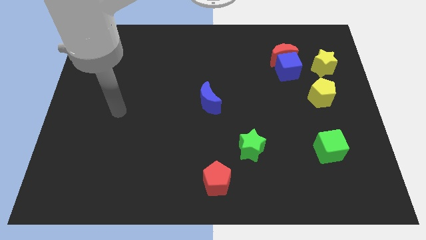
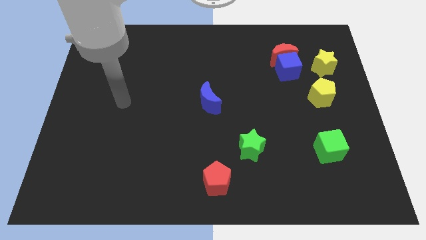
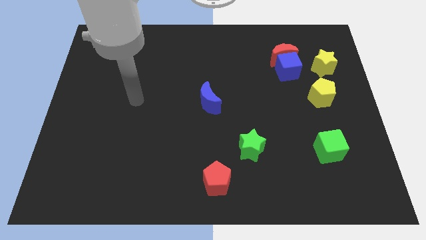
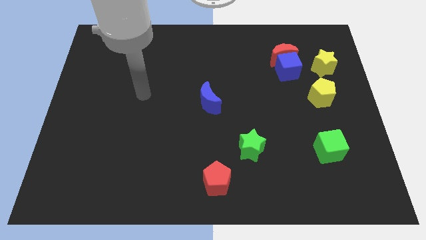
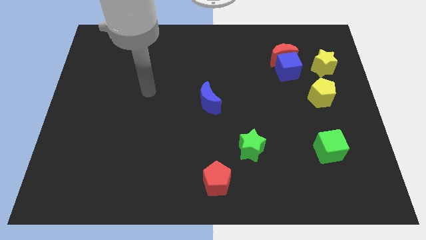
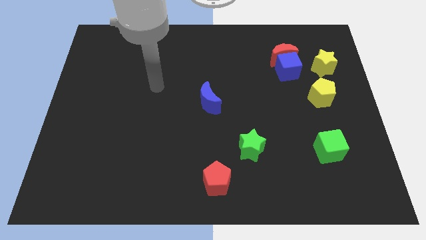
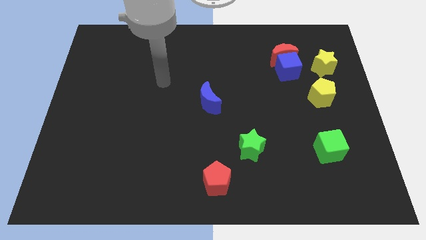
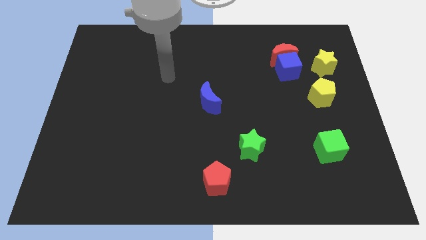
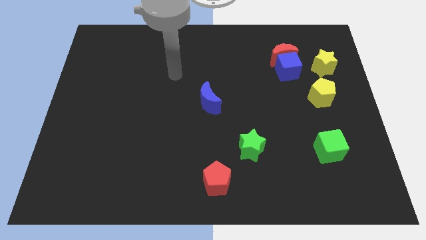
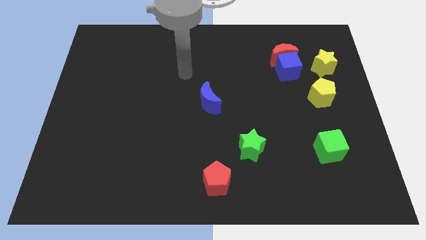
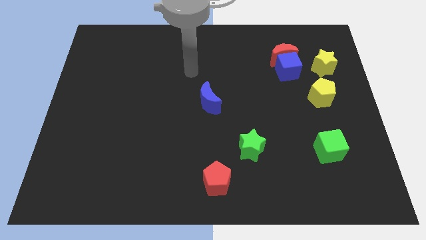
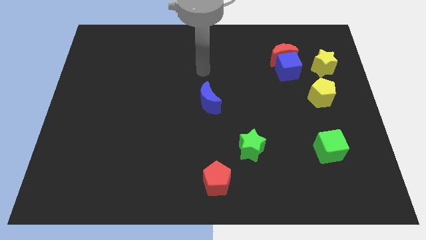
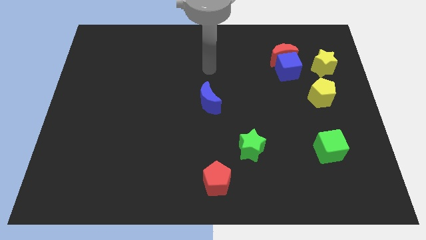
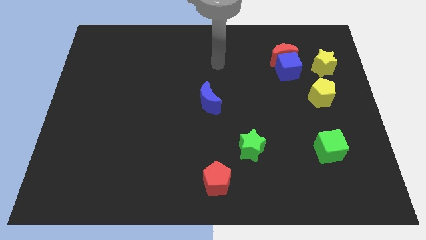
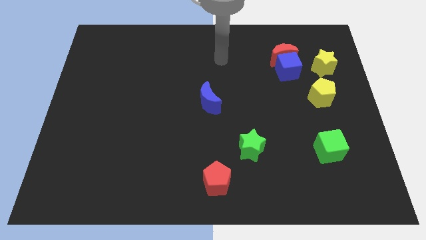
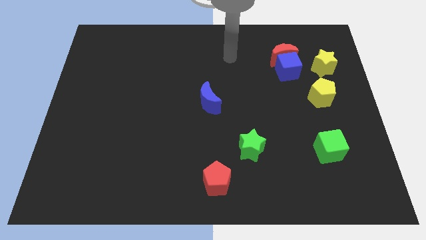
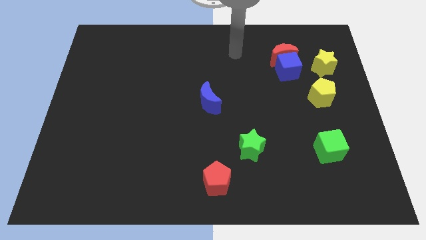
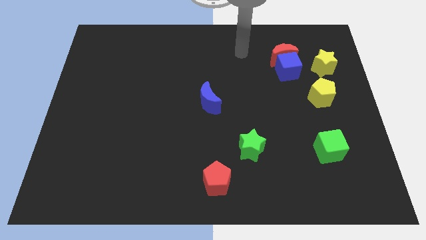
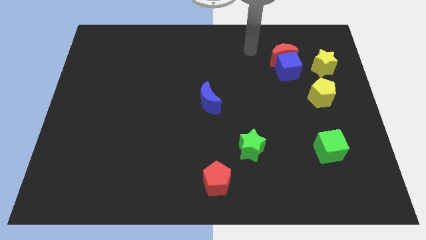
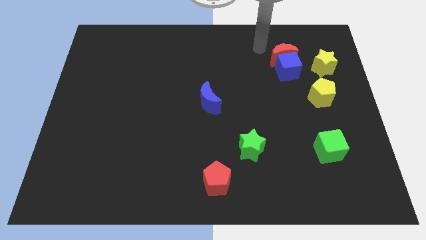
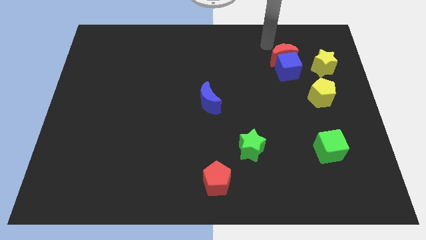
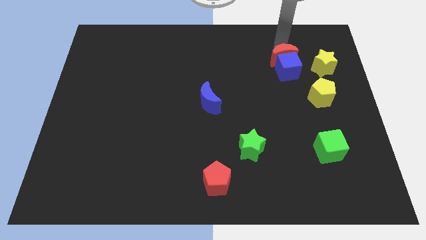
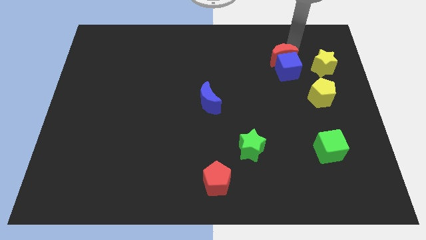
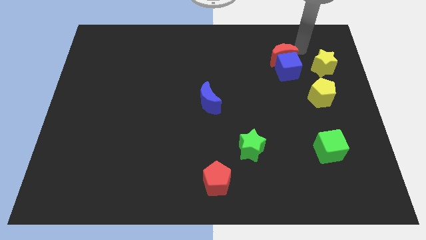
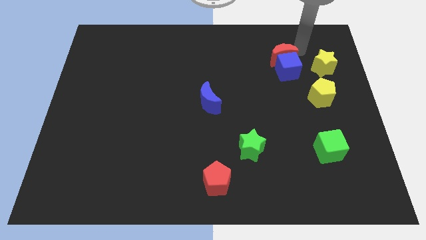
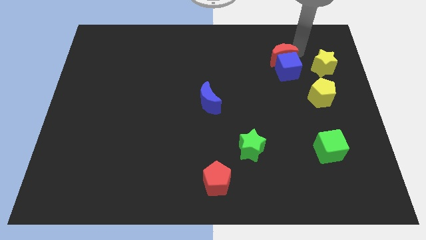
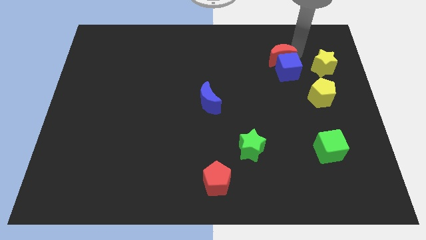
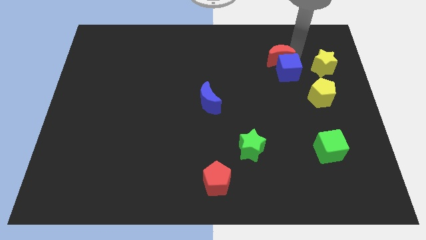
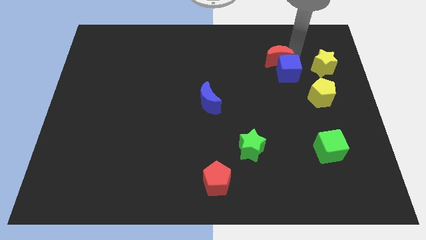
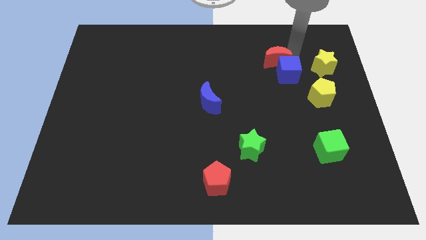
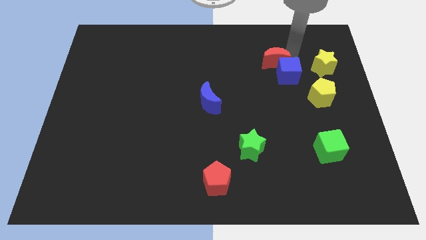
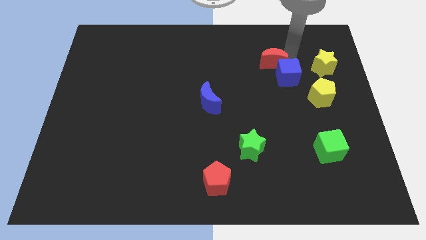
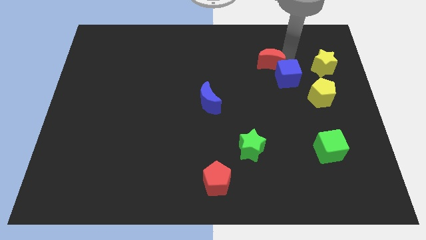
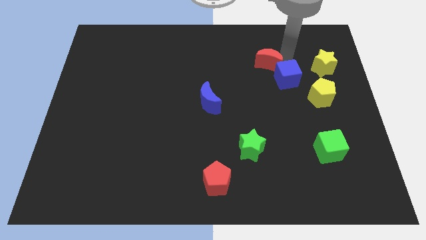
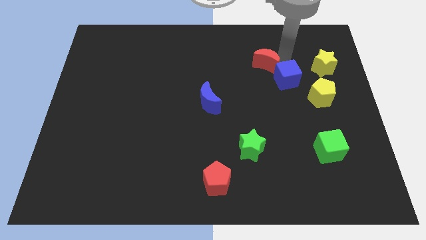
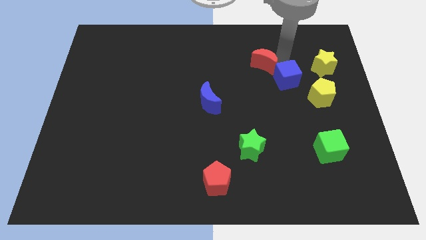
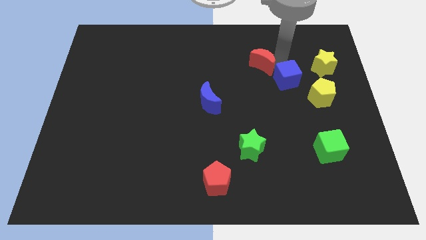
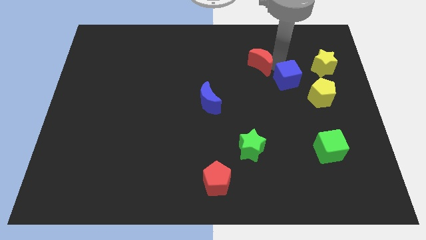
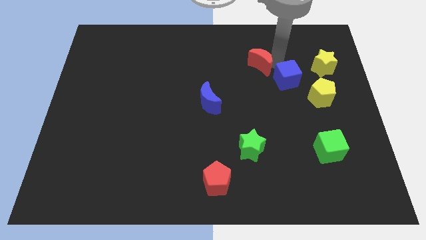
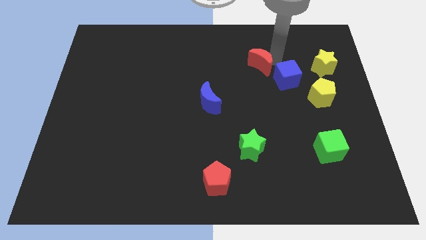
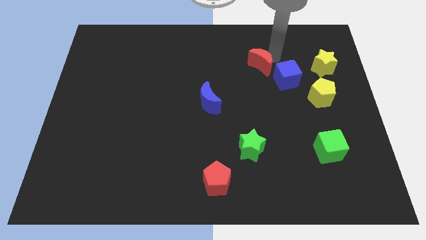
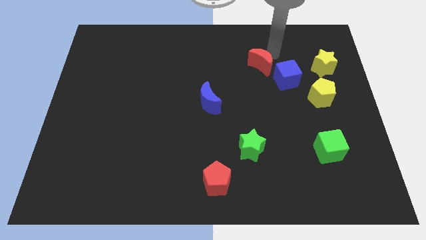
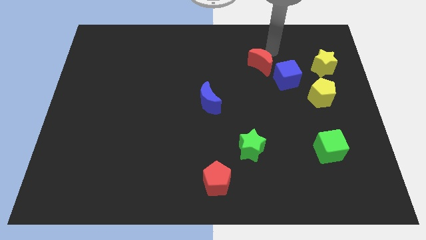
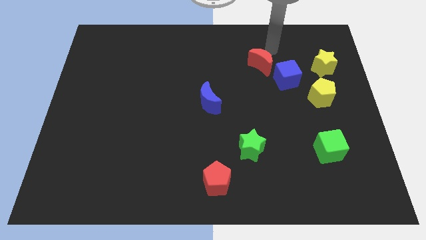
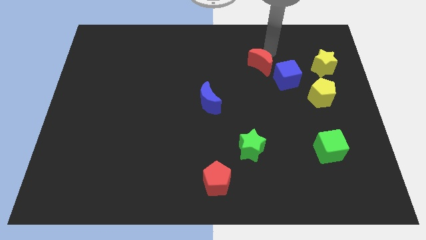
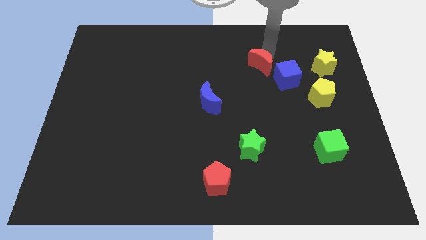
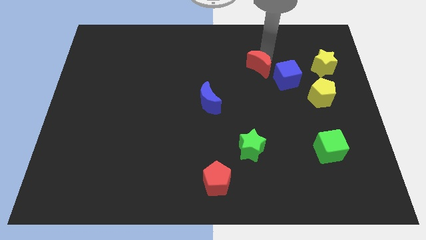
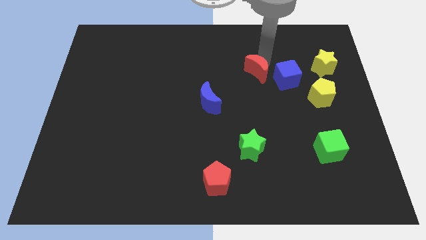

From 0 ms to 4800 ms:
move the red moon a bit down and then to the left

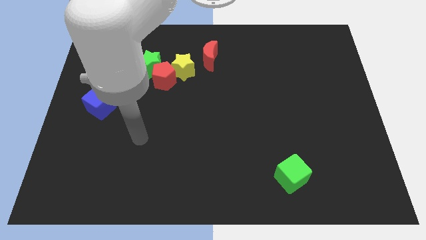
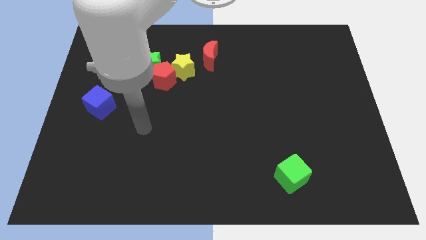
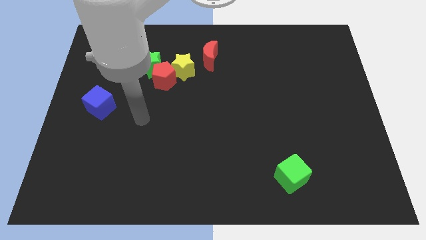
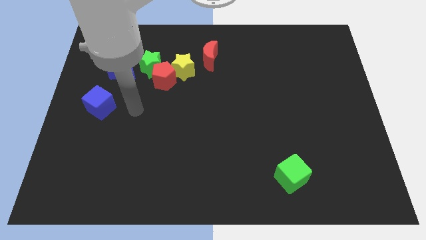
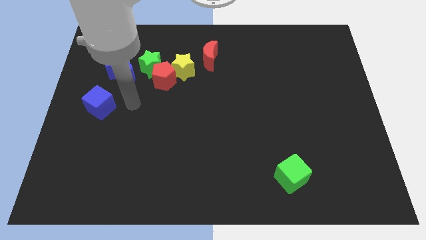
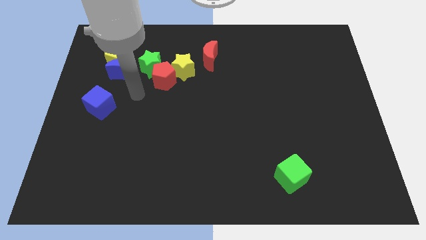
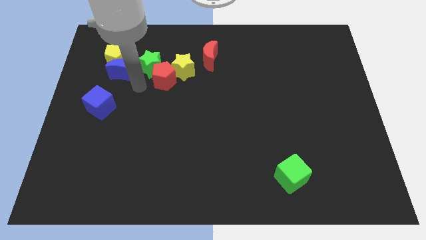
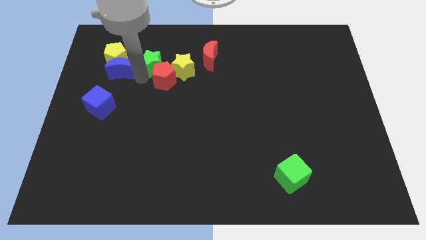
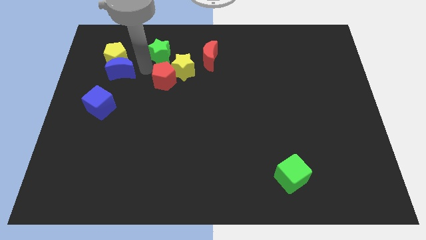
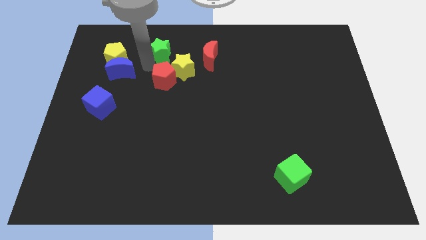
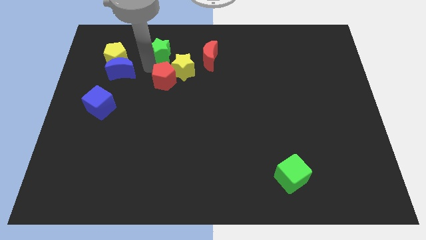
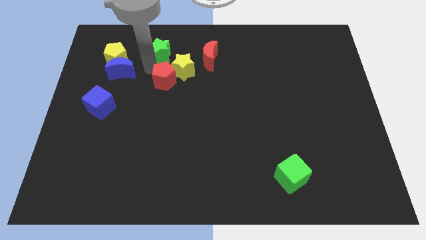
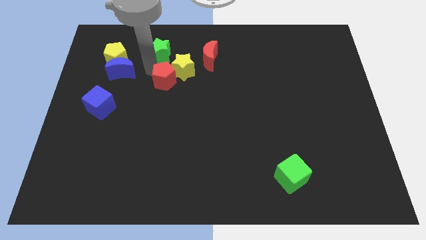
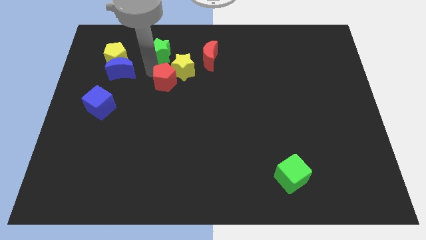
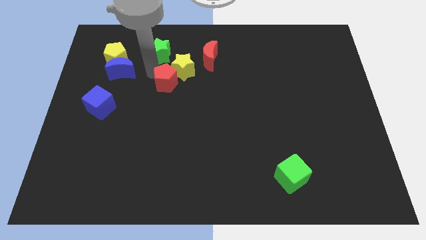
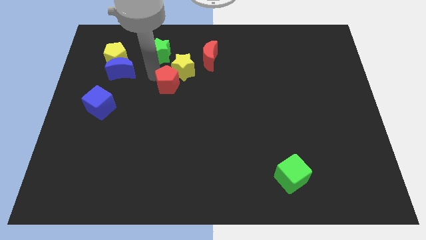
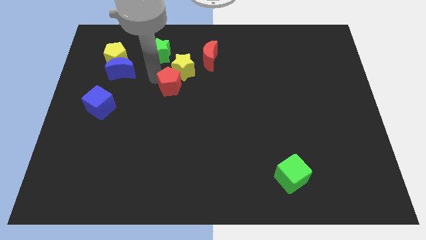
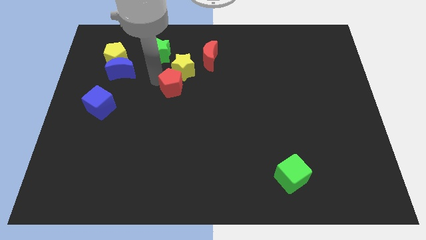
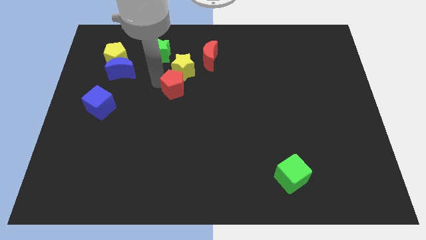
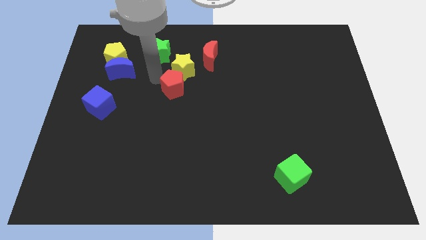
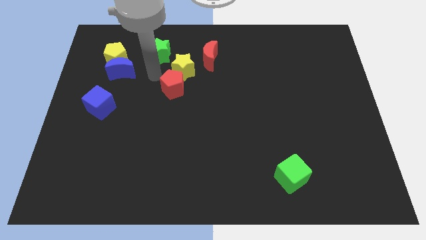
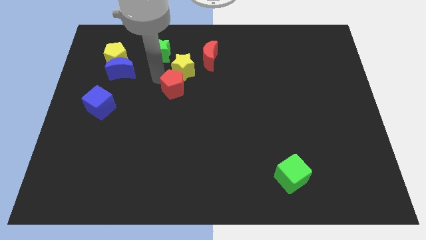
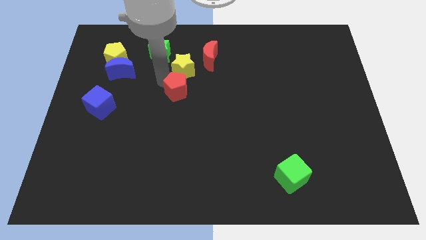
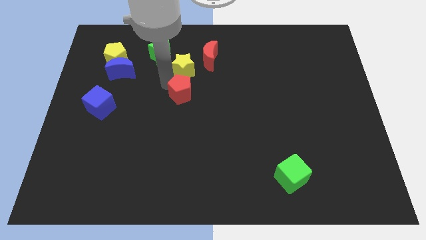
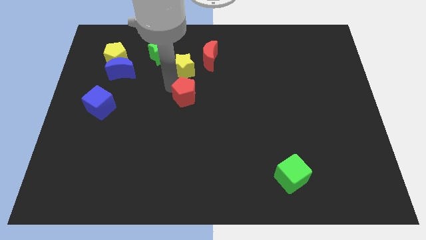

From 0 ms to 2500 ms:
push the red pentagon a little bit down and right diagonally

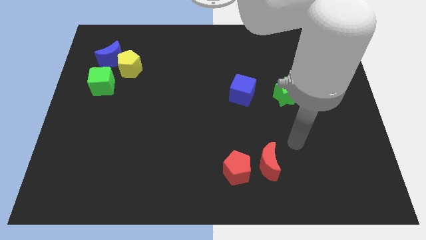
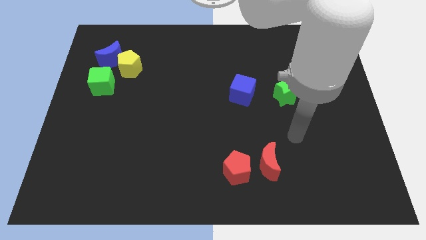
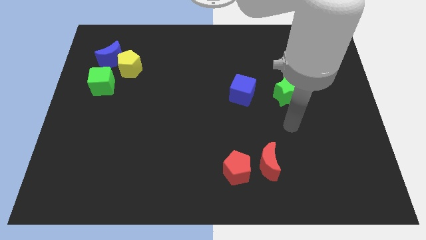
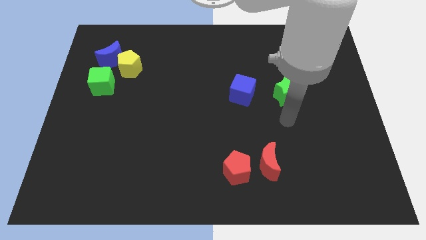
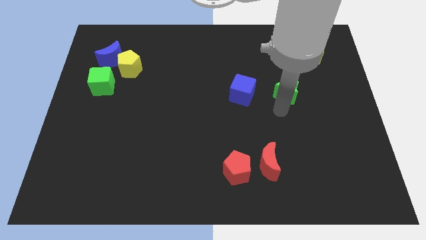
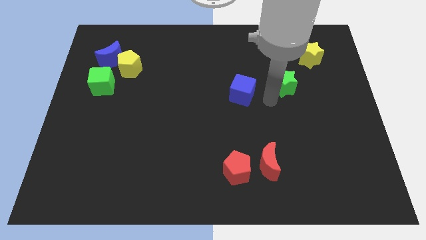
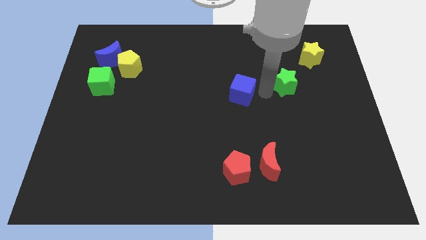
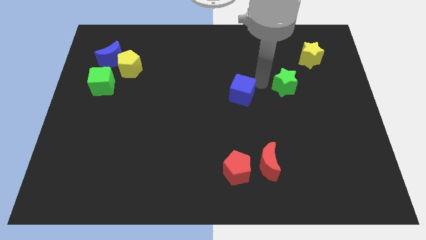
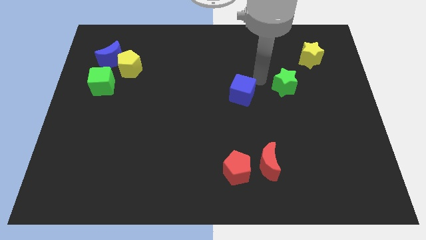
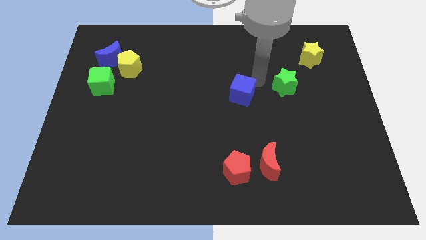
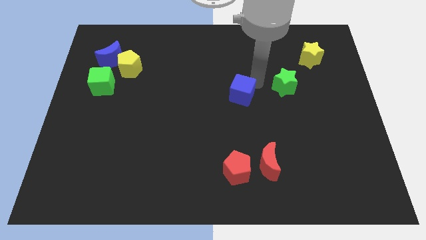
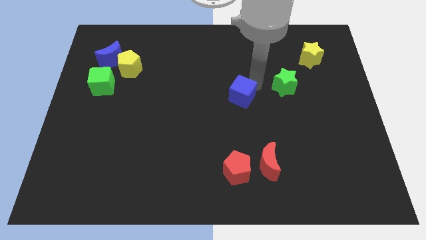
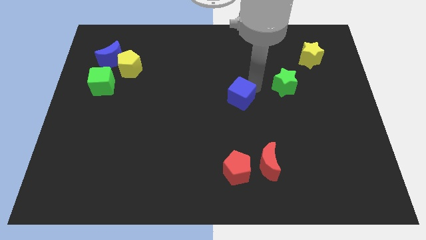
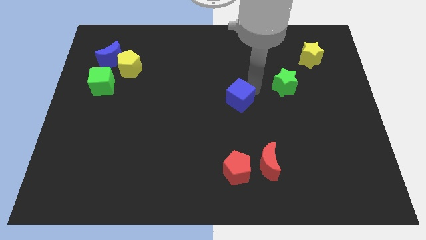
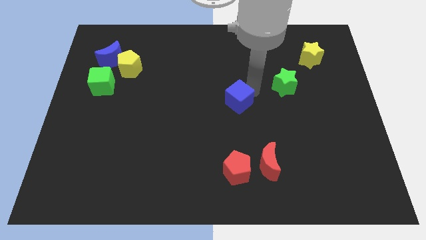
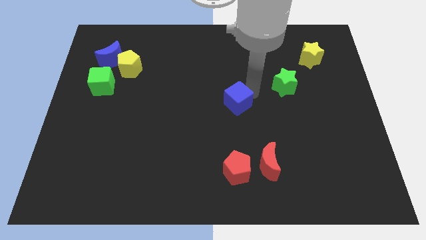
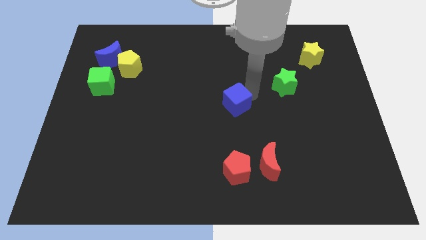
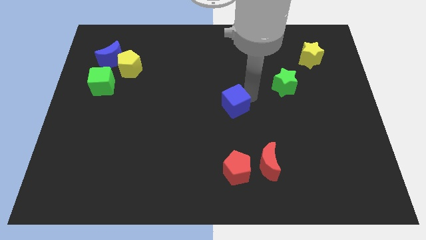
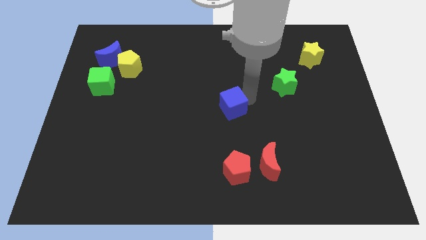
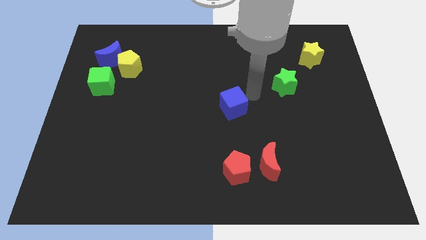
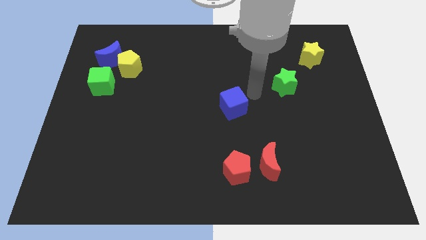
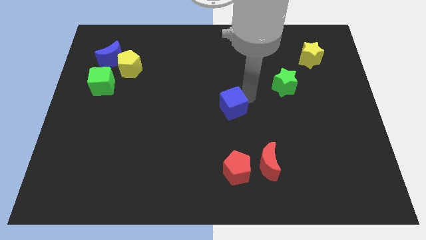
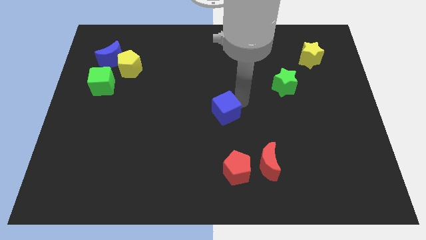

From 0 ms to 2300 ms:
slightly slide the blue cube down and to the left
